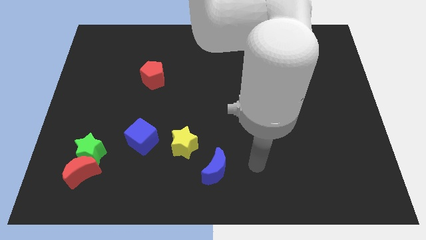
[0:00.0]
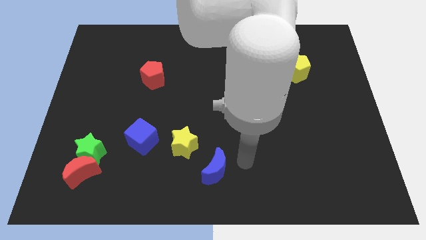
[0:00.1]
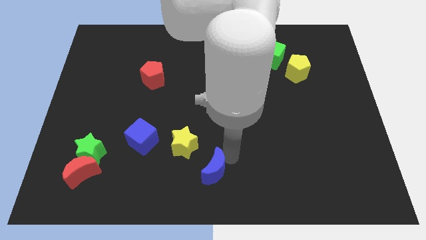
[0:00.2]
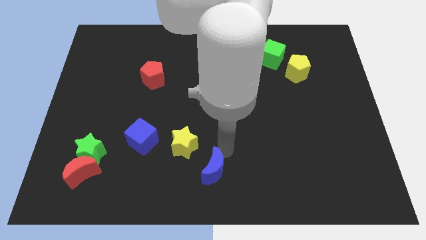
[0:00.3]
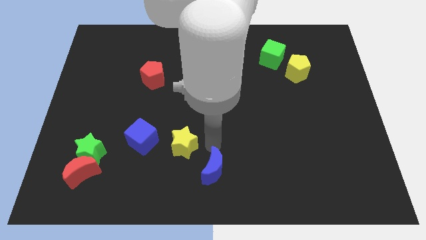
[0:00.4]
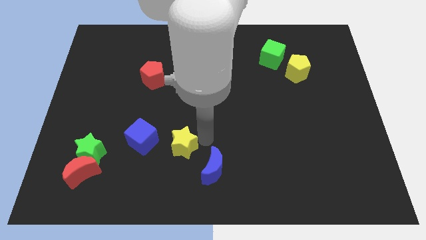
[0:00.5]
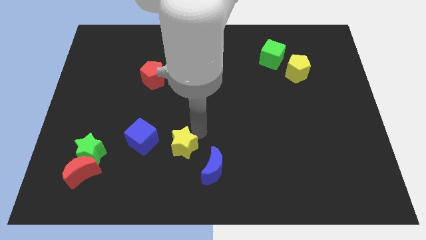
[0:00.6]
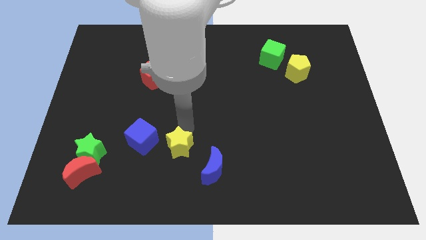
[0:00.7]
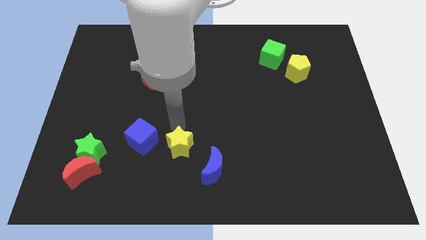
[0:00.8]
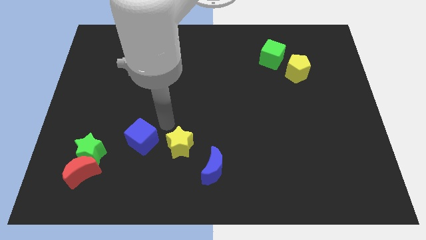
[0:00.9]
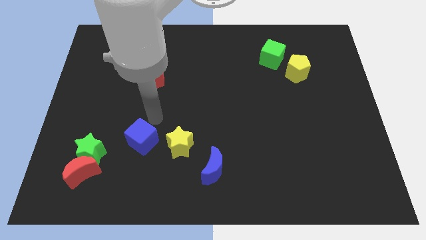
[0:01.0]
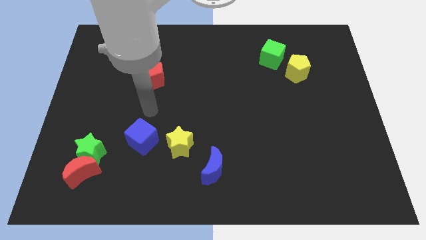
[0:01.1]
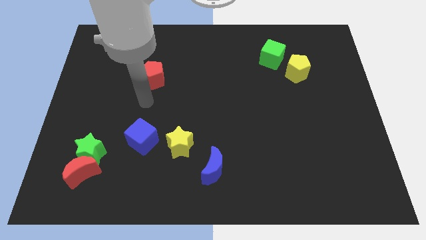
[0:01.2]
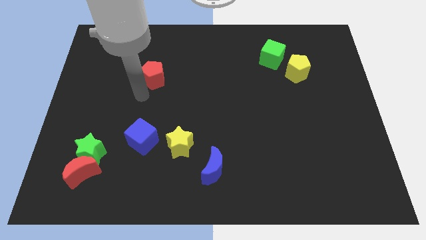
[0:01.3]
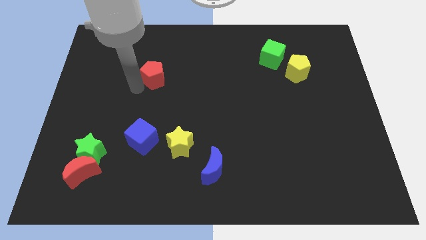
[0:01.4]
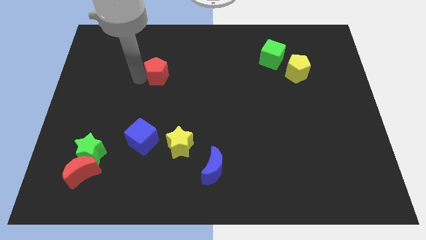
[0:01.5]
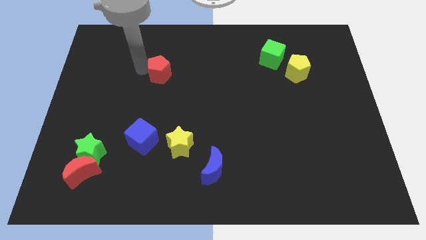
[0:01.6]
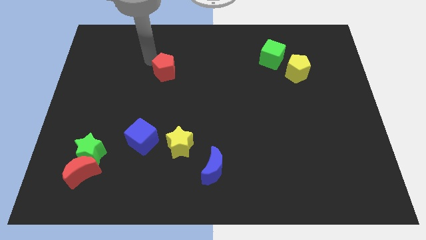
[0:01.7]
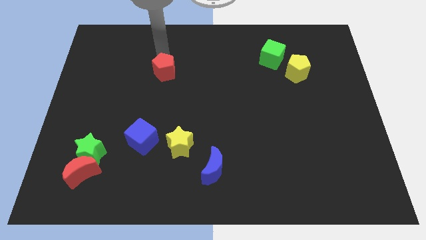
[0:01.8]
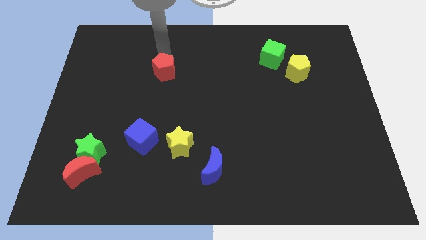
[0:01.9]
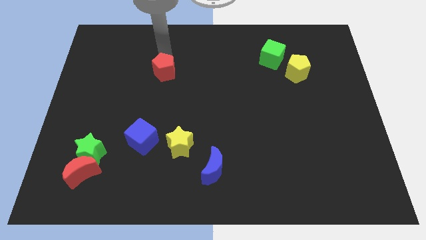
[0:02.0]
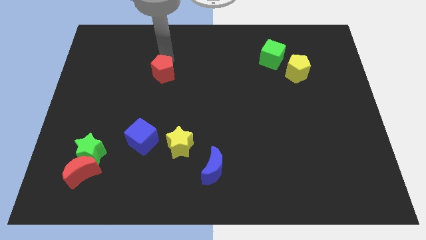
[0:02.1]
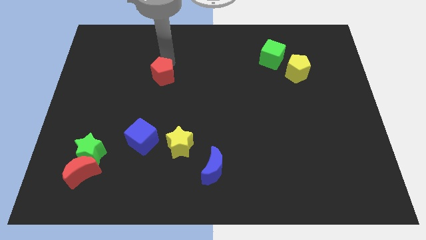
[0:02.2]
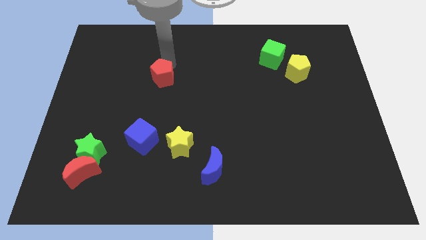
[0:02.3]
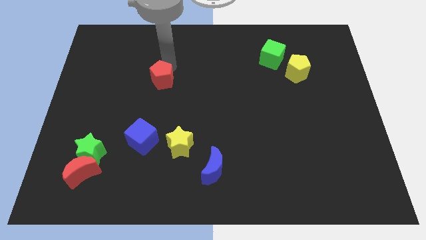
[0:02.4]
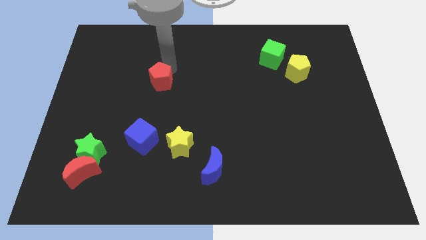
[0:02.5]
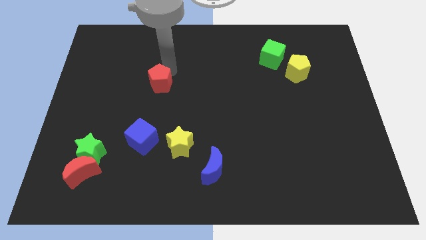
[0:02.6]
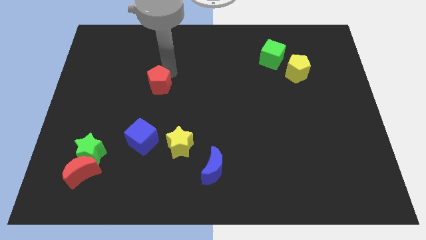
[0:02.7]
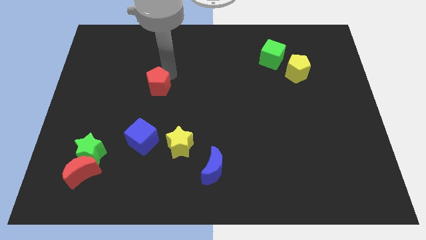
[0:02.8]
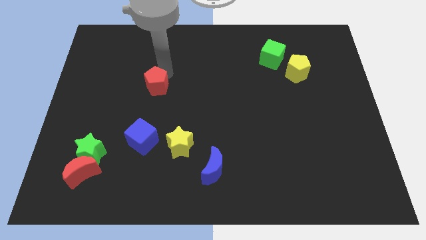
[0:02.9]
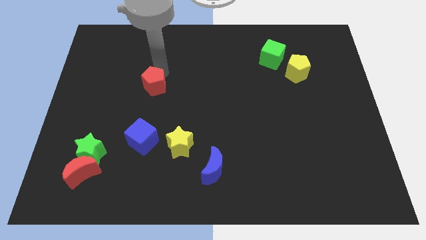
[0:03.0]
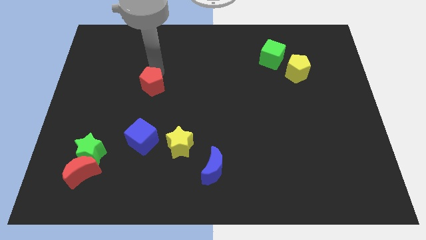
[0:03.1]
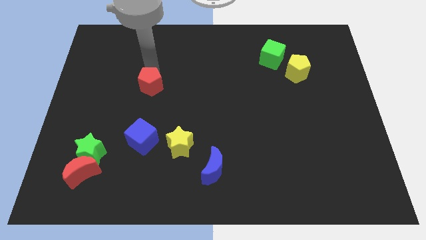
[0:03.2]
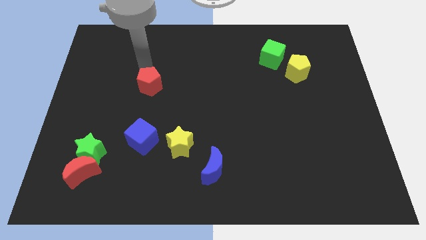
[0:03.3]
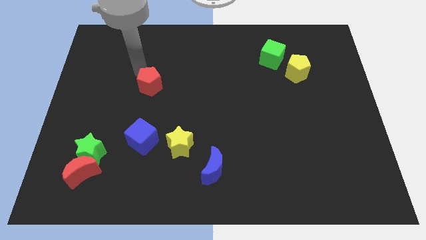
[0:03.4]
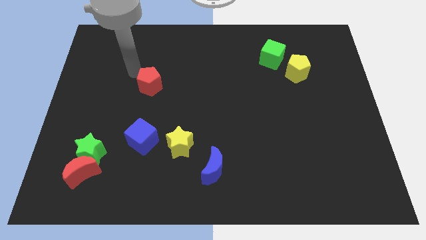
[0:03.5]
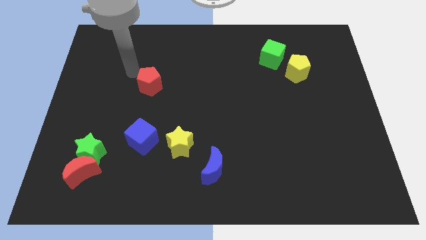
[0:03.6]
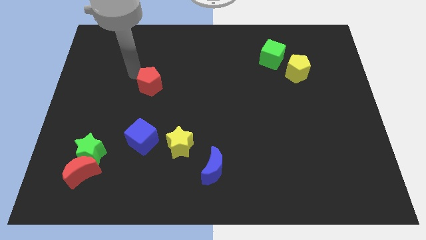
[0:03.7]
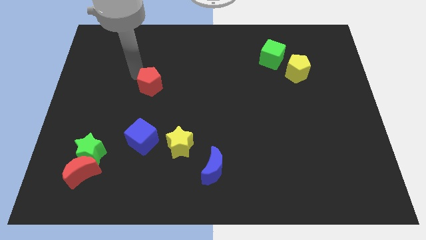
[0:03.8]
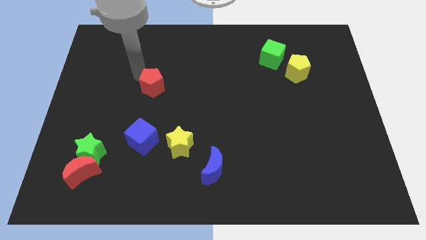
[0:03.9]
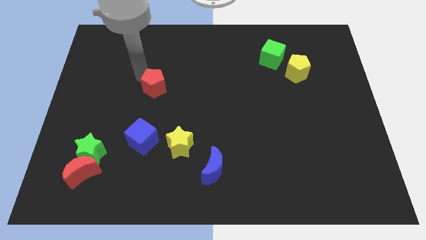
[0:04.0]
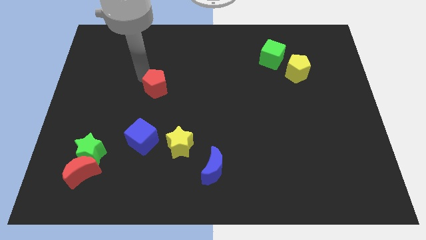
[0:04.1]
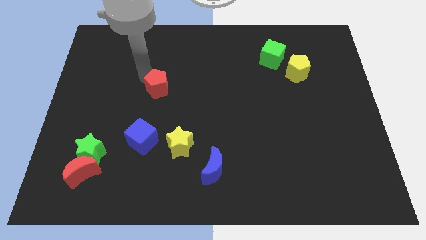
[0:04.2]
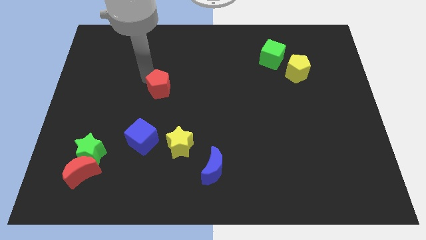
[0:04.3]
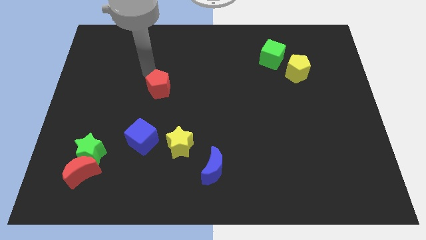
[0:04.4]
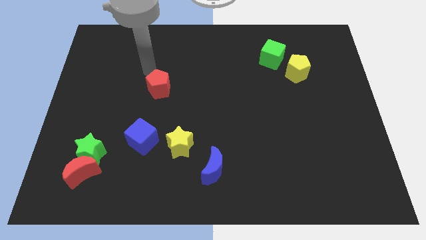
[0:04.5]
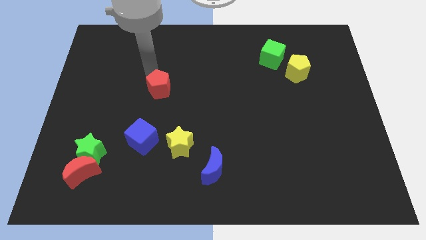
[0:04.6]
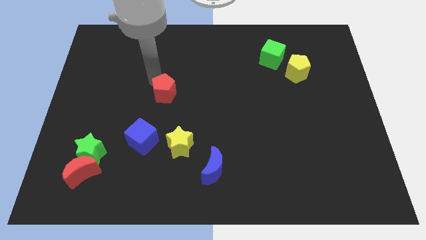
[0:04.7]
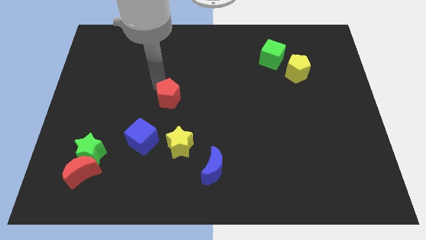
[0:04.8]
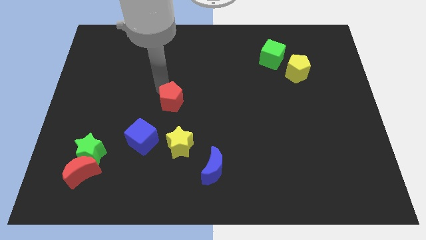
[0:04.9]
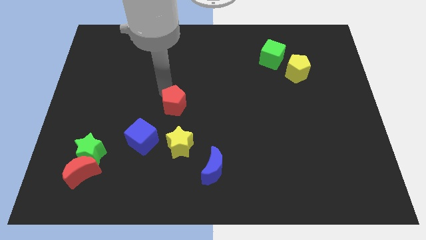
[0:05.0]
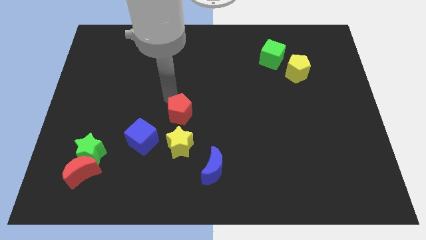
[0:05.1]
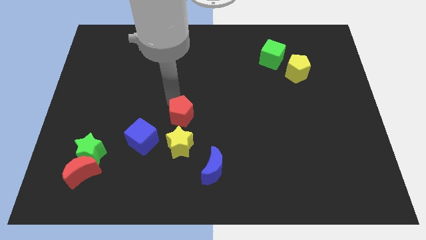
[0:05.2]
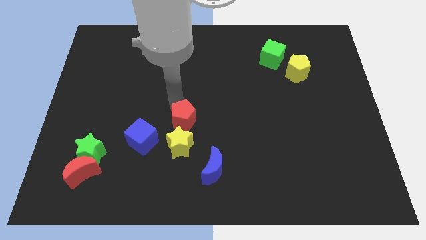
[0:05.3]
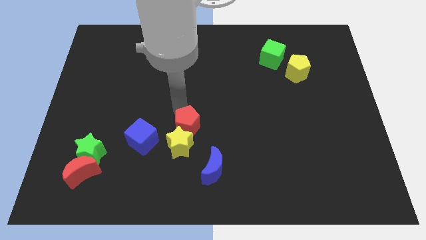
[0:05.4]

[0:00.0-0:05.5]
put the red pentagon to the yellow star

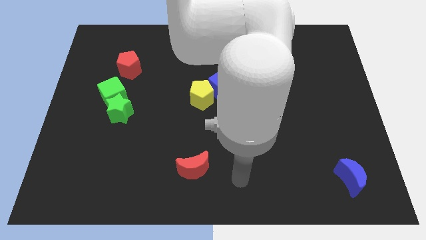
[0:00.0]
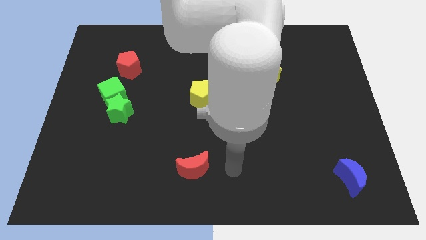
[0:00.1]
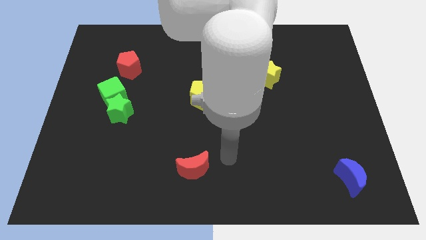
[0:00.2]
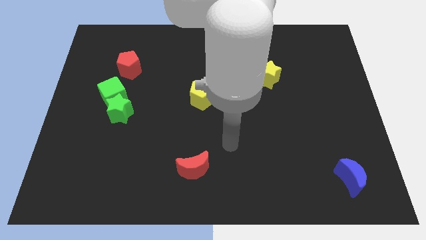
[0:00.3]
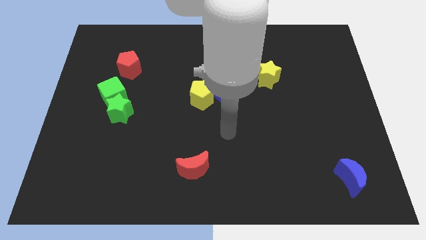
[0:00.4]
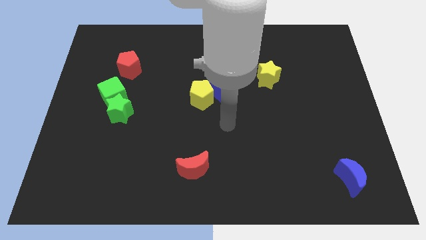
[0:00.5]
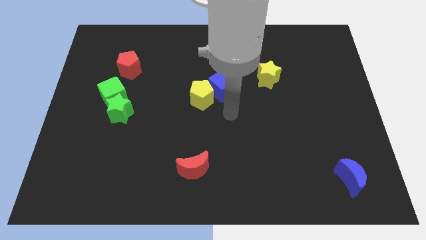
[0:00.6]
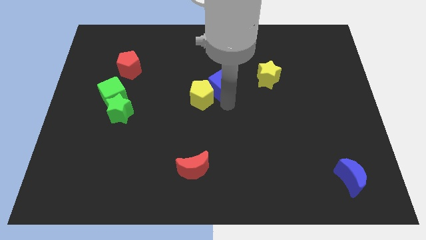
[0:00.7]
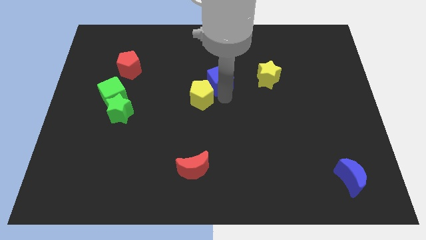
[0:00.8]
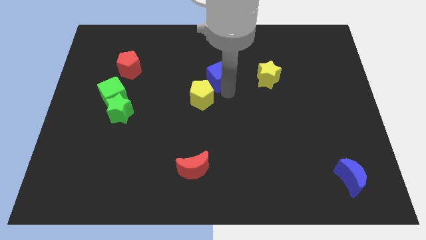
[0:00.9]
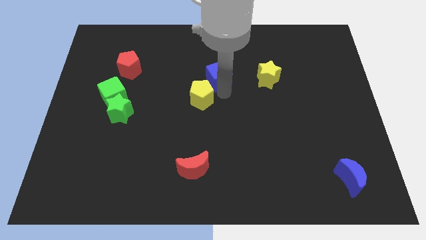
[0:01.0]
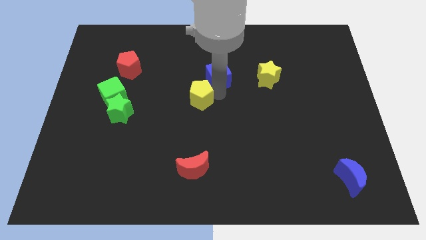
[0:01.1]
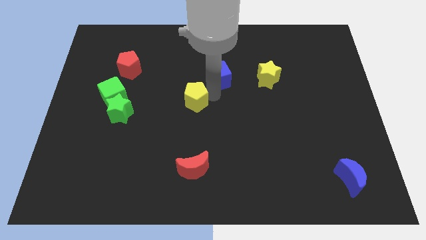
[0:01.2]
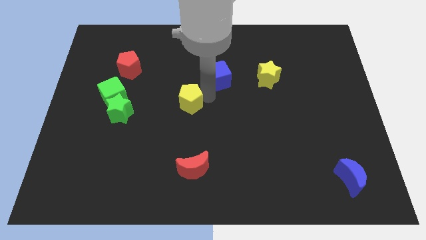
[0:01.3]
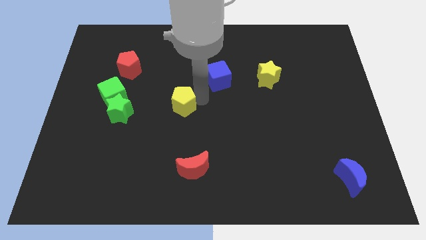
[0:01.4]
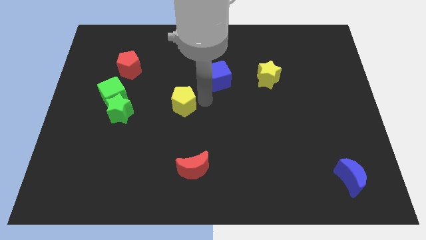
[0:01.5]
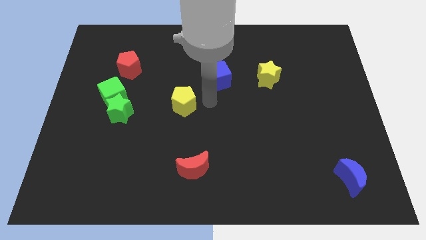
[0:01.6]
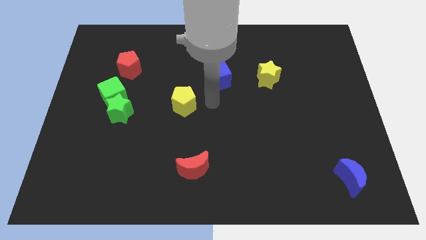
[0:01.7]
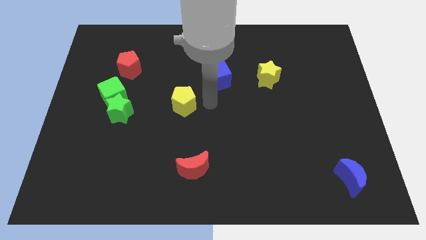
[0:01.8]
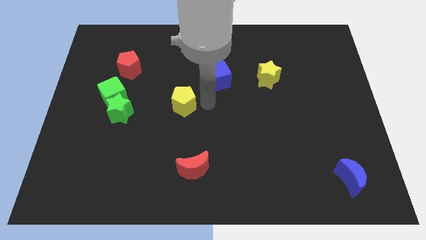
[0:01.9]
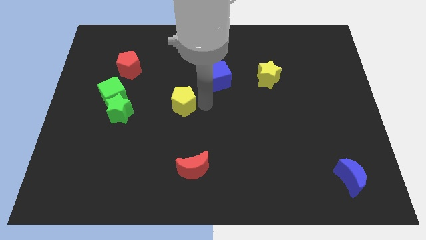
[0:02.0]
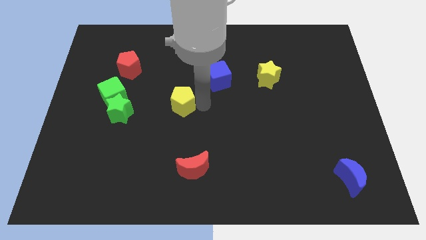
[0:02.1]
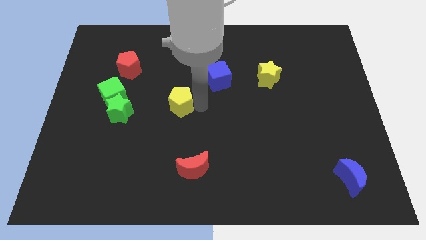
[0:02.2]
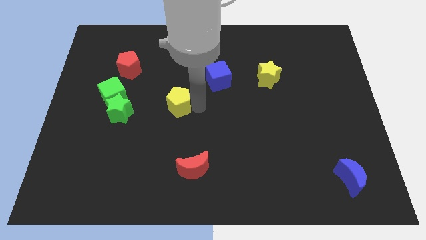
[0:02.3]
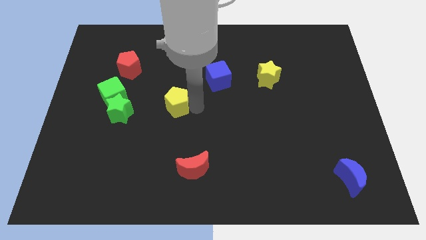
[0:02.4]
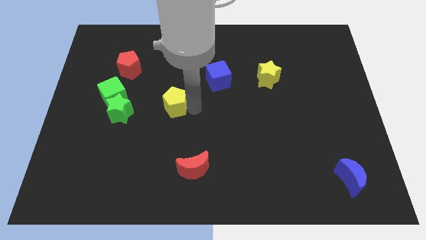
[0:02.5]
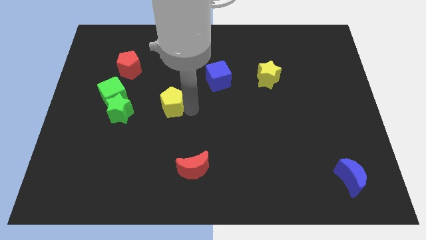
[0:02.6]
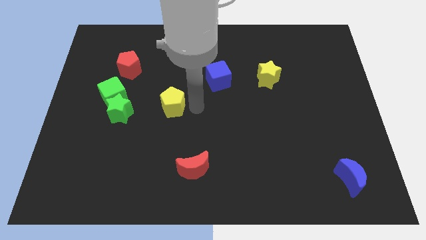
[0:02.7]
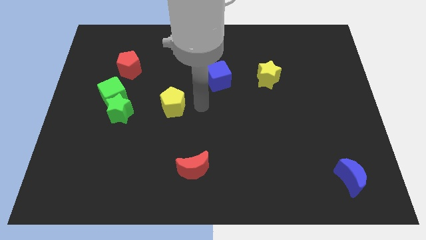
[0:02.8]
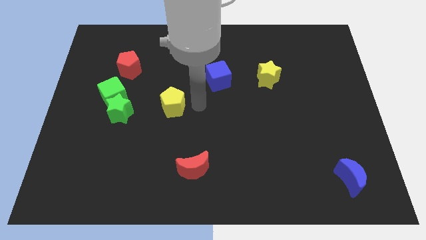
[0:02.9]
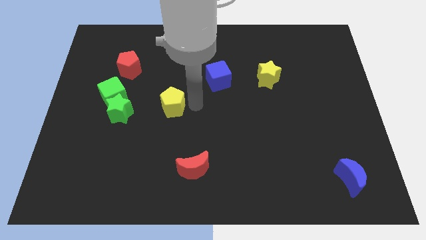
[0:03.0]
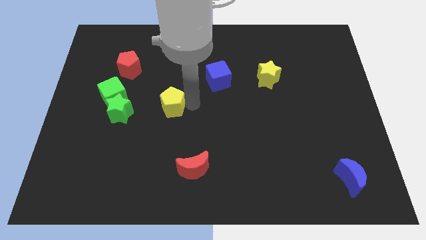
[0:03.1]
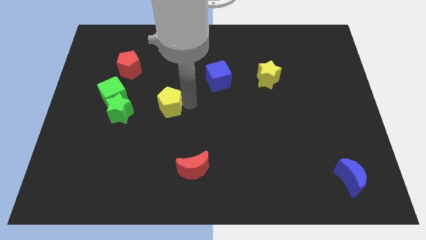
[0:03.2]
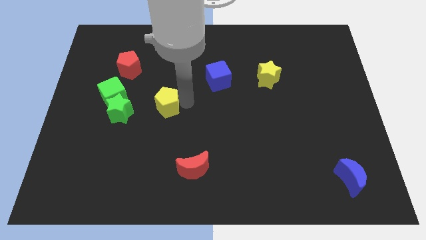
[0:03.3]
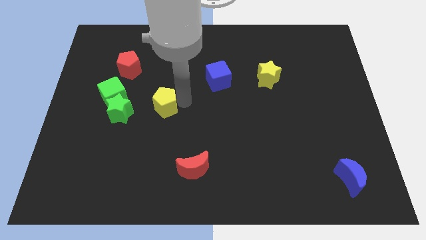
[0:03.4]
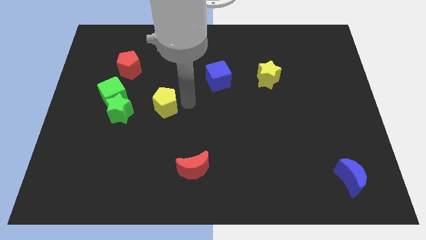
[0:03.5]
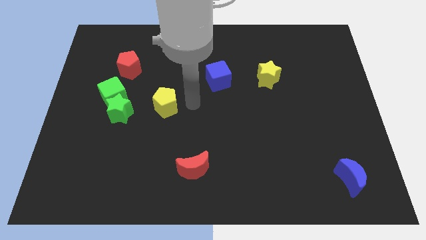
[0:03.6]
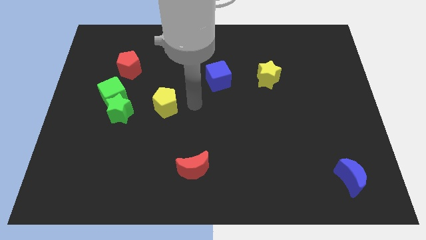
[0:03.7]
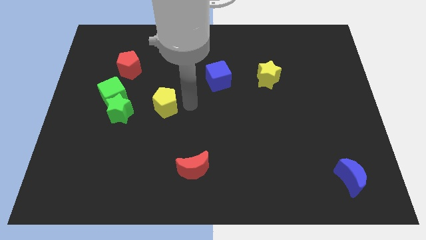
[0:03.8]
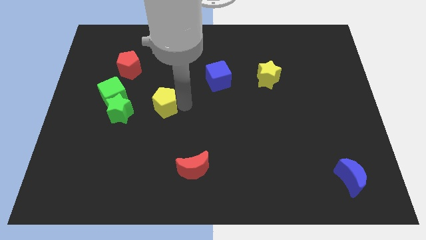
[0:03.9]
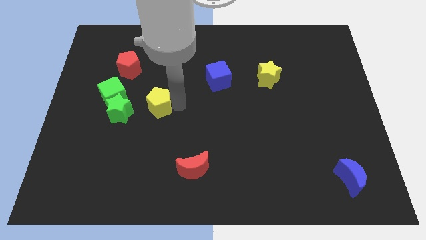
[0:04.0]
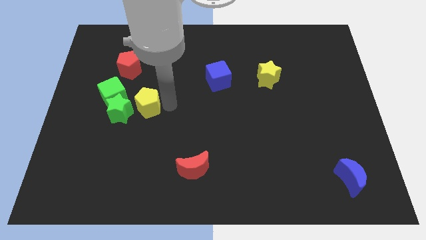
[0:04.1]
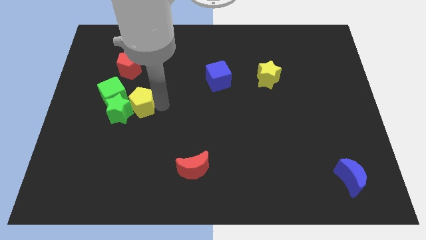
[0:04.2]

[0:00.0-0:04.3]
move the yellow pentagon to the green star
